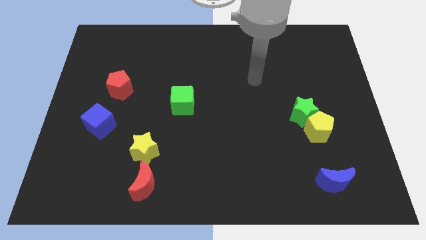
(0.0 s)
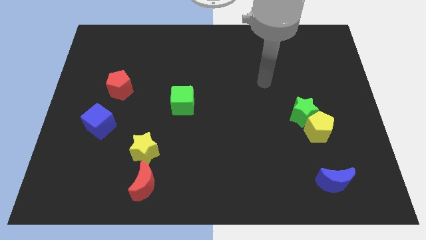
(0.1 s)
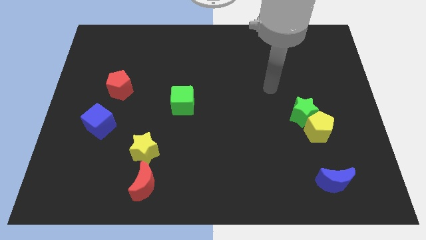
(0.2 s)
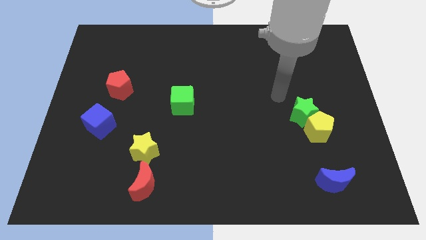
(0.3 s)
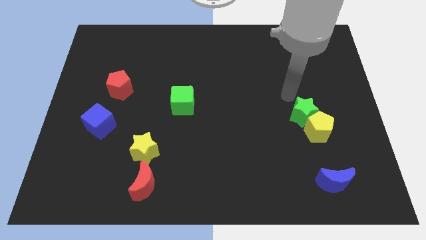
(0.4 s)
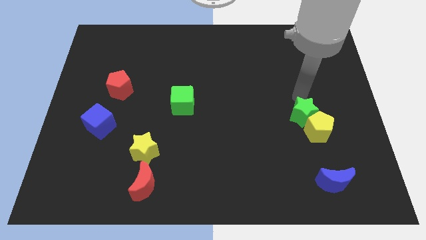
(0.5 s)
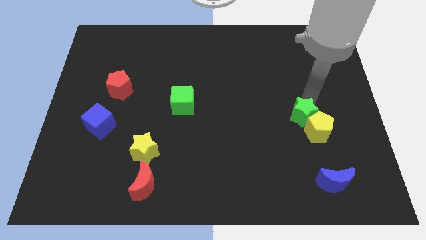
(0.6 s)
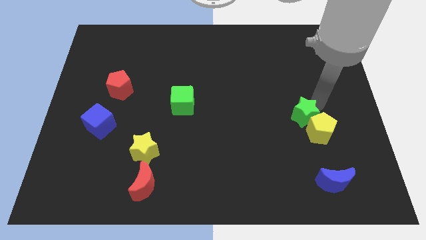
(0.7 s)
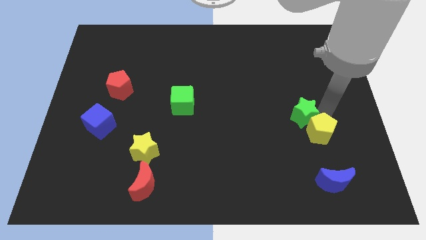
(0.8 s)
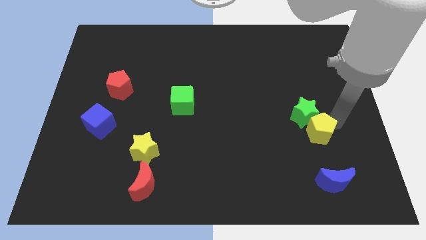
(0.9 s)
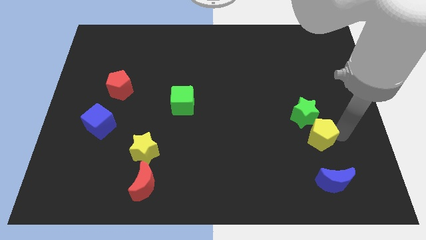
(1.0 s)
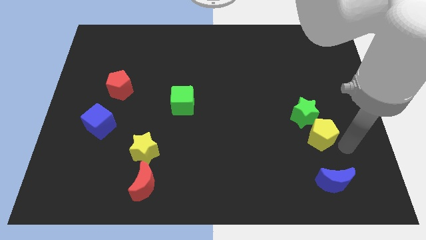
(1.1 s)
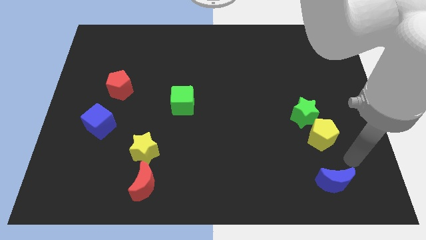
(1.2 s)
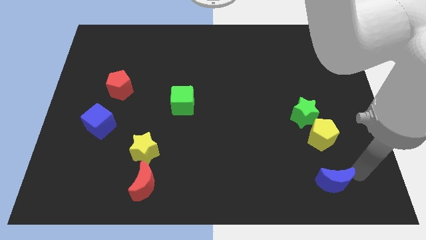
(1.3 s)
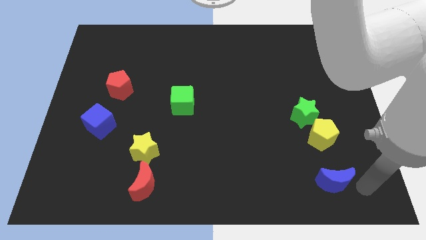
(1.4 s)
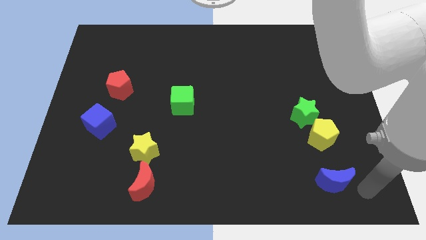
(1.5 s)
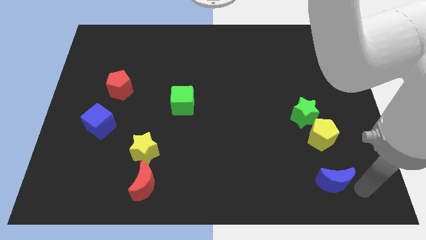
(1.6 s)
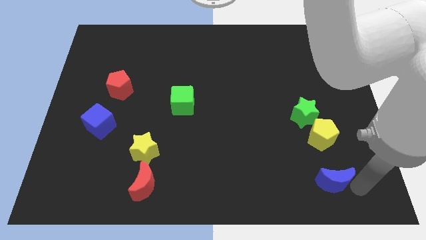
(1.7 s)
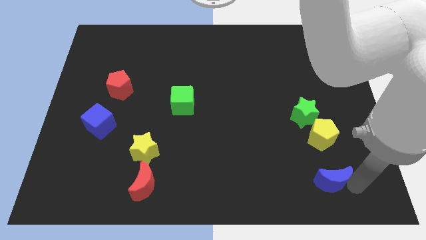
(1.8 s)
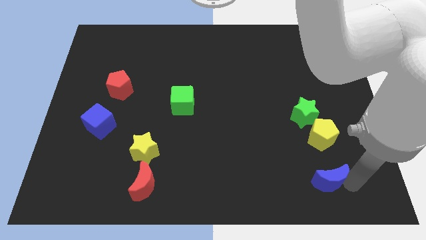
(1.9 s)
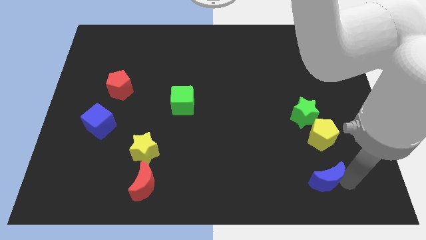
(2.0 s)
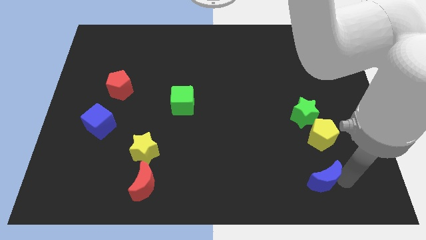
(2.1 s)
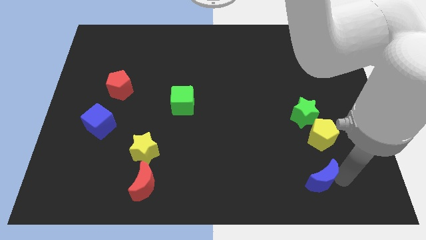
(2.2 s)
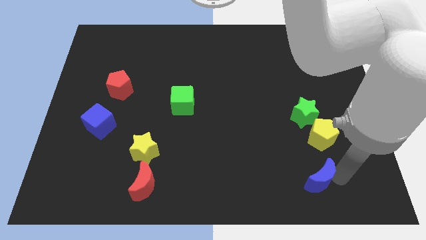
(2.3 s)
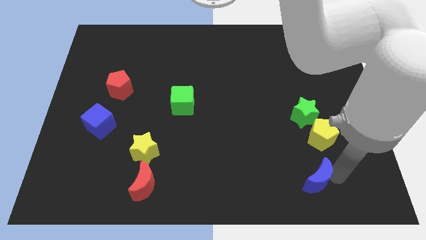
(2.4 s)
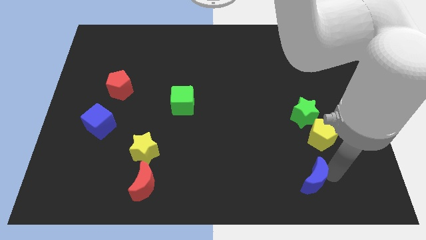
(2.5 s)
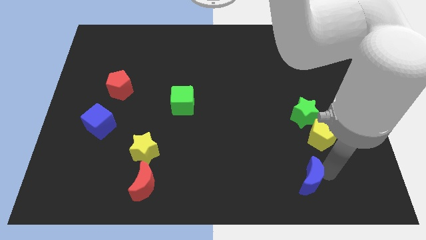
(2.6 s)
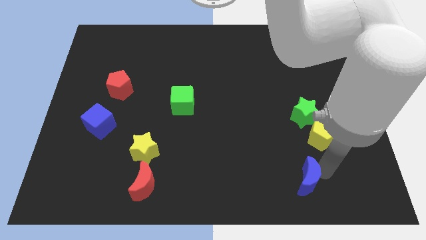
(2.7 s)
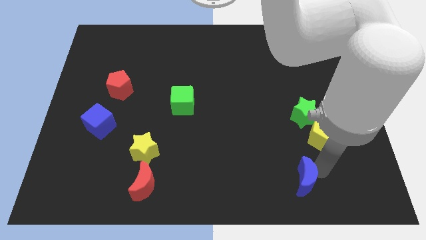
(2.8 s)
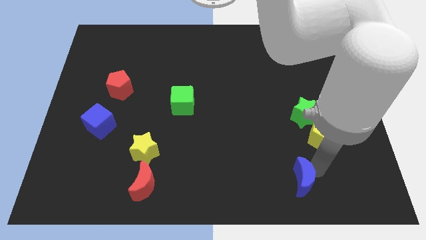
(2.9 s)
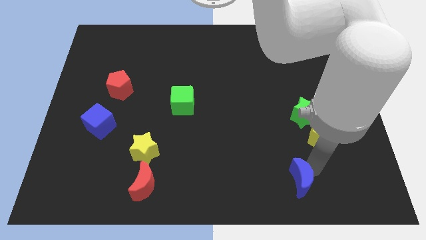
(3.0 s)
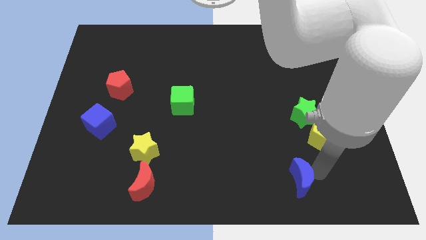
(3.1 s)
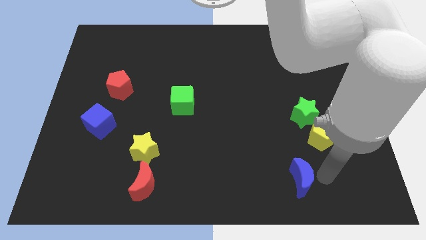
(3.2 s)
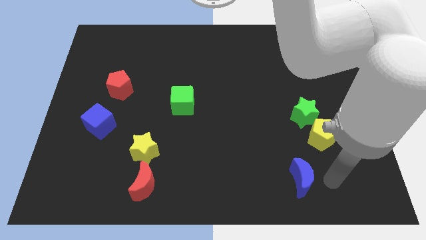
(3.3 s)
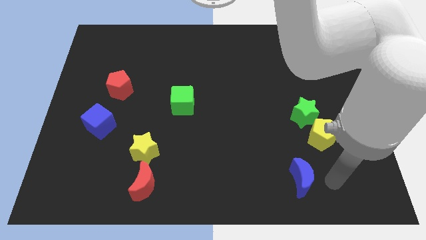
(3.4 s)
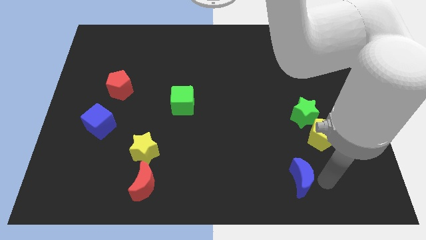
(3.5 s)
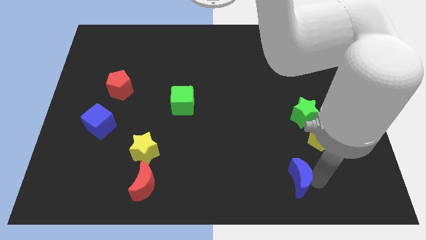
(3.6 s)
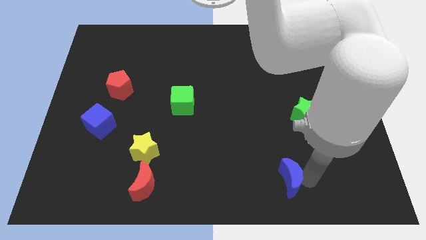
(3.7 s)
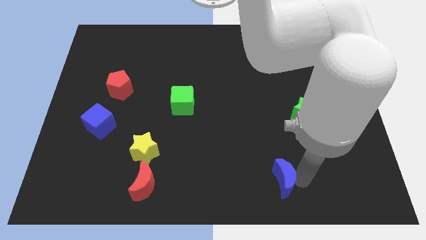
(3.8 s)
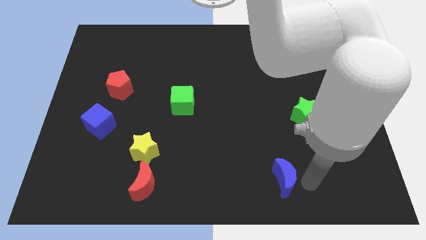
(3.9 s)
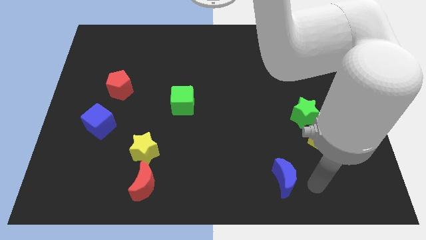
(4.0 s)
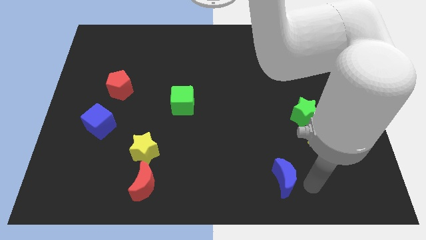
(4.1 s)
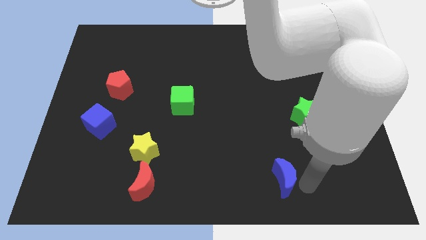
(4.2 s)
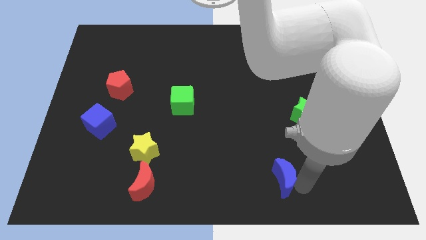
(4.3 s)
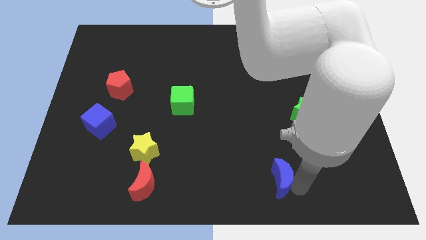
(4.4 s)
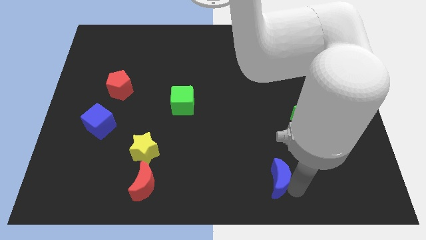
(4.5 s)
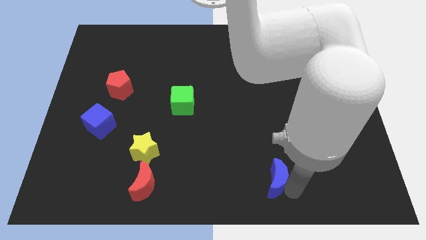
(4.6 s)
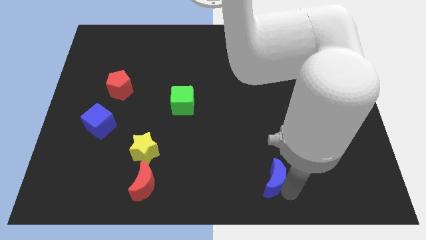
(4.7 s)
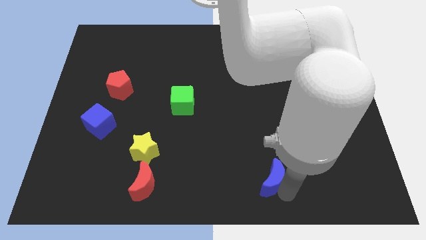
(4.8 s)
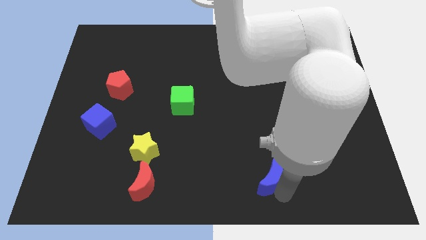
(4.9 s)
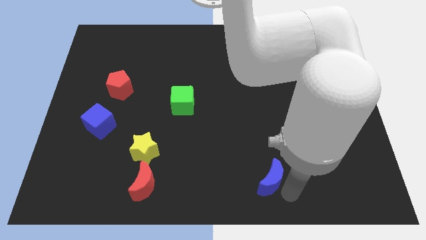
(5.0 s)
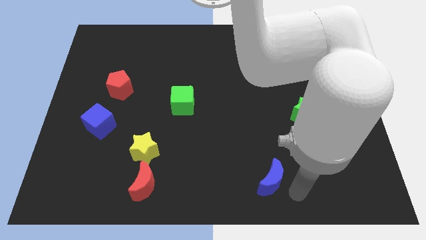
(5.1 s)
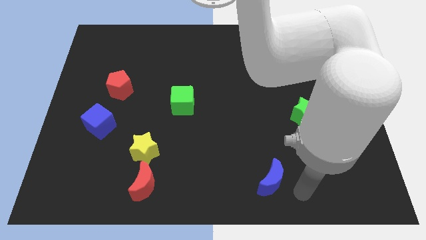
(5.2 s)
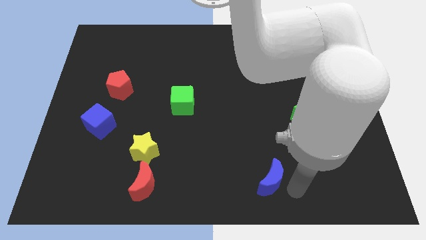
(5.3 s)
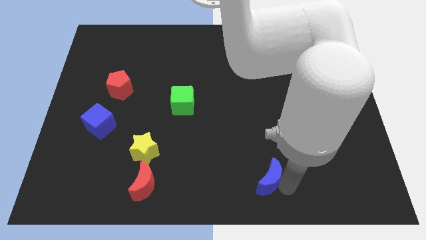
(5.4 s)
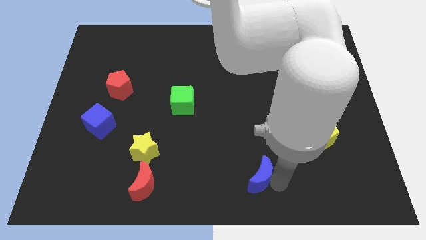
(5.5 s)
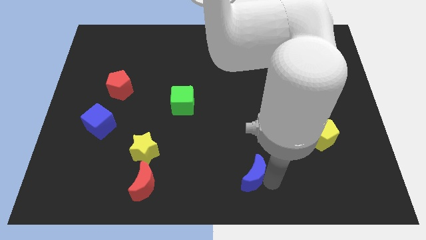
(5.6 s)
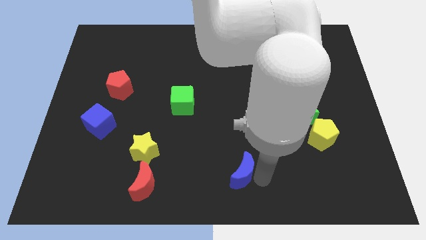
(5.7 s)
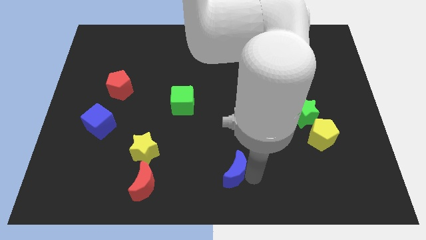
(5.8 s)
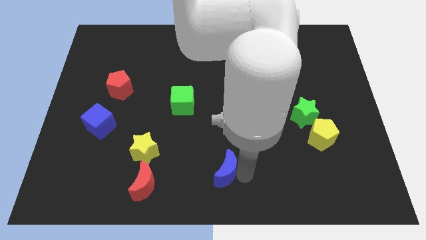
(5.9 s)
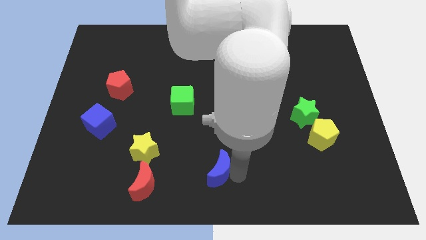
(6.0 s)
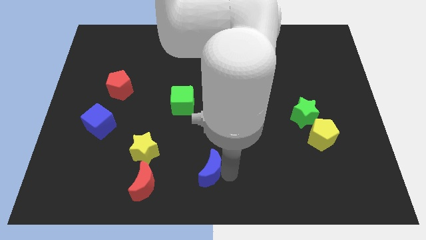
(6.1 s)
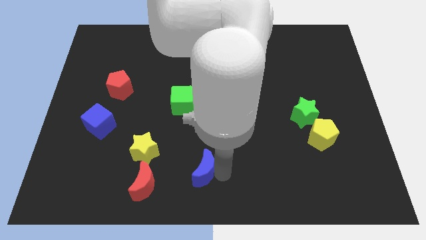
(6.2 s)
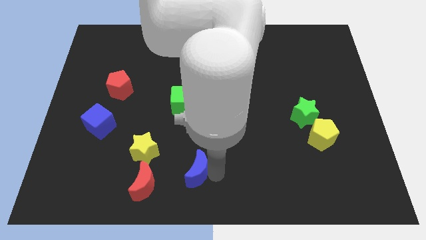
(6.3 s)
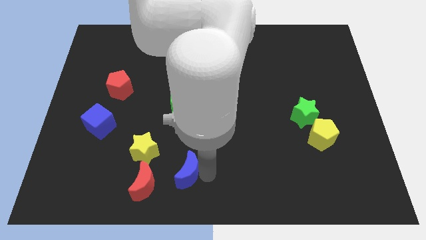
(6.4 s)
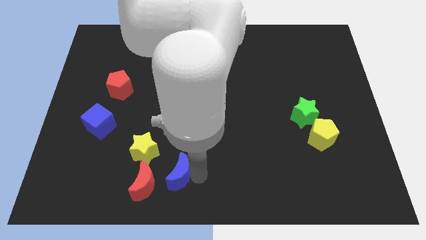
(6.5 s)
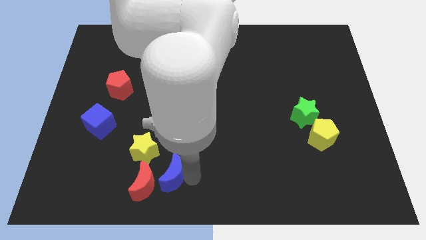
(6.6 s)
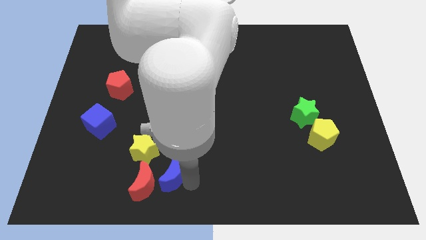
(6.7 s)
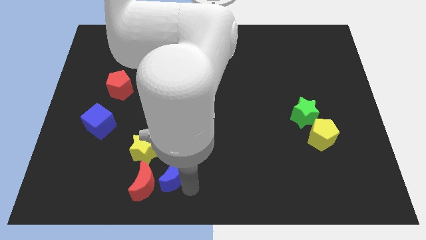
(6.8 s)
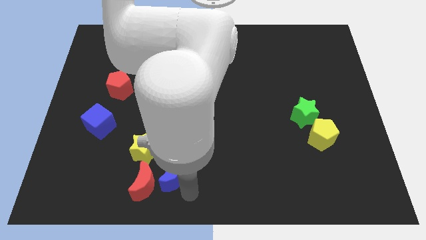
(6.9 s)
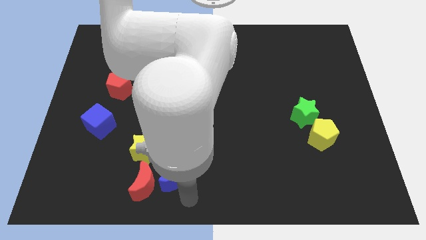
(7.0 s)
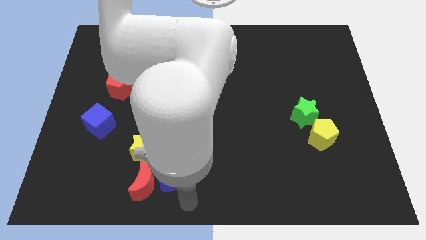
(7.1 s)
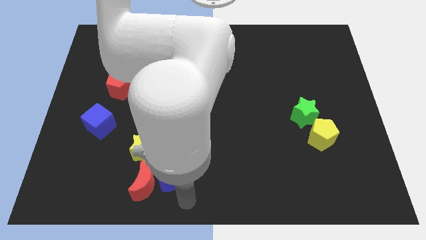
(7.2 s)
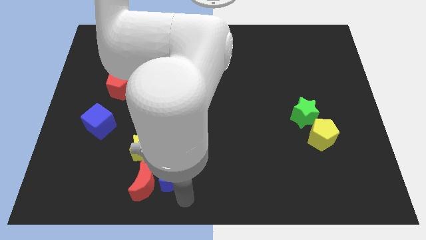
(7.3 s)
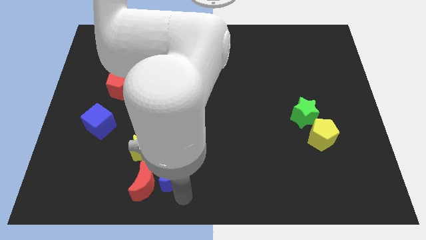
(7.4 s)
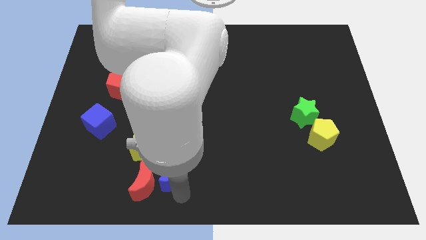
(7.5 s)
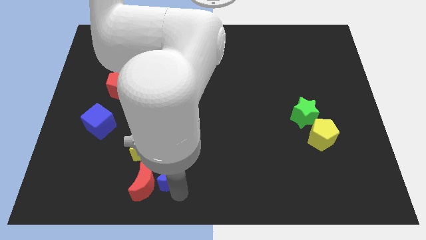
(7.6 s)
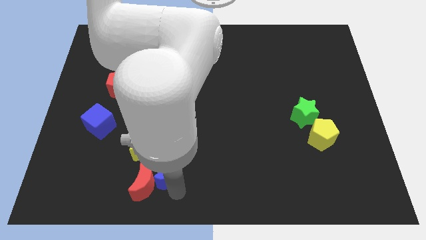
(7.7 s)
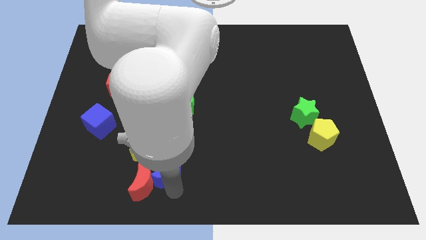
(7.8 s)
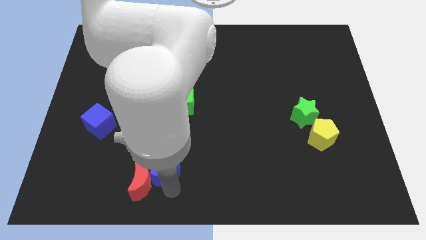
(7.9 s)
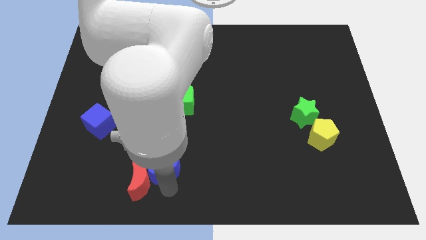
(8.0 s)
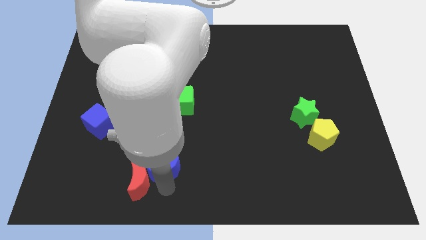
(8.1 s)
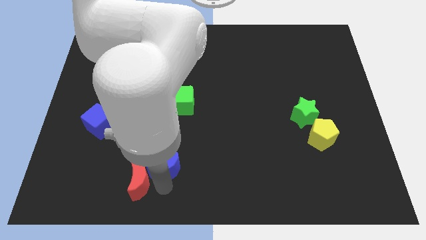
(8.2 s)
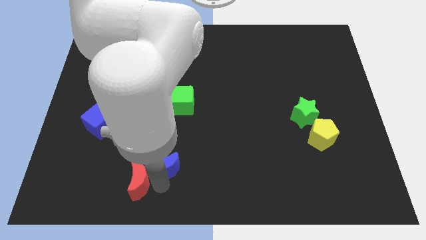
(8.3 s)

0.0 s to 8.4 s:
put the blue moon to the yellow star
